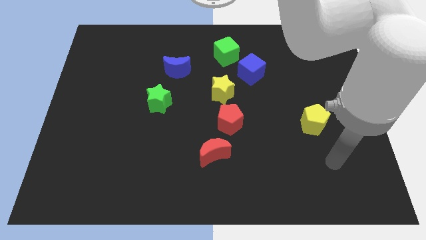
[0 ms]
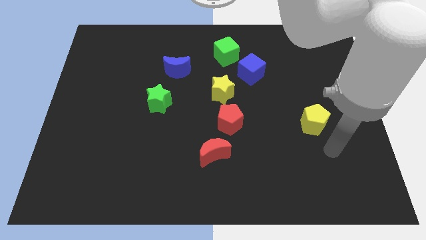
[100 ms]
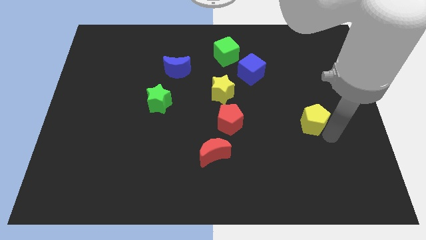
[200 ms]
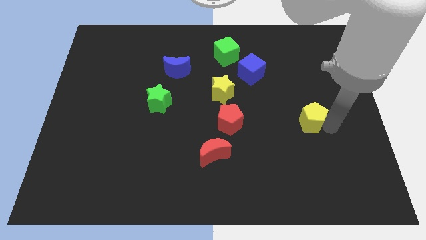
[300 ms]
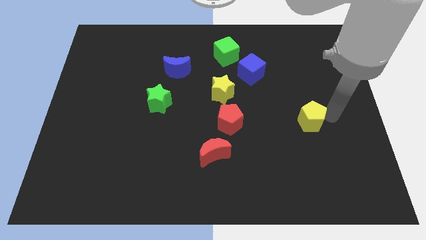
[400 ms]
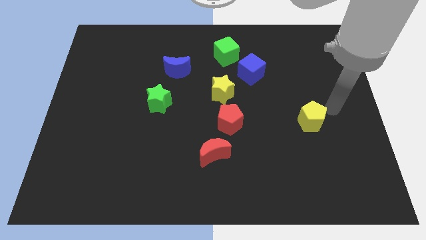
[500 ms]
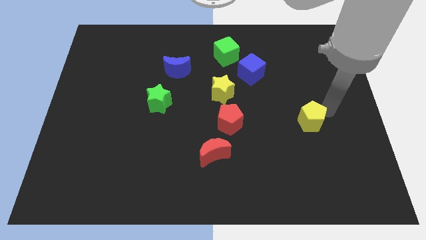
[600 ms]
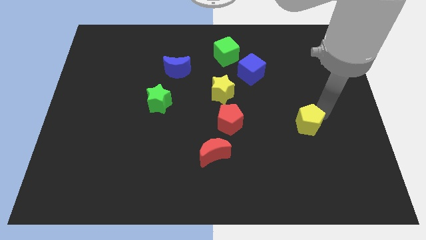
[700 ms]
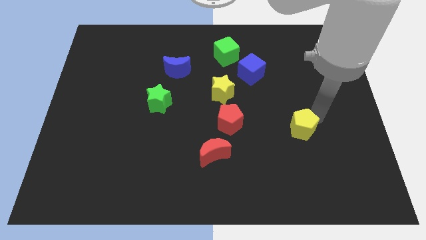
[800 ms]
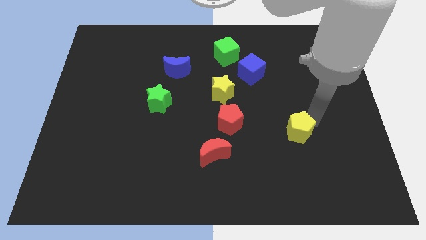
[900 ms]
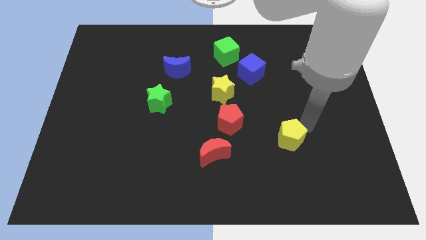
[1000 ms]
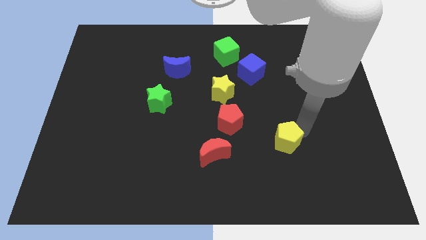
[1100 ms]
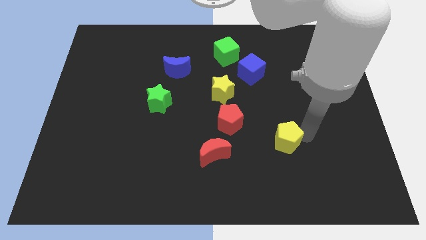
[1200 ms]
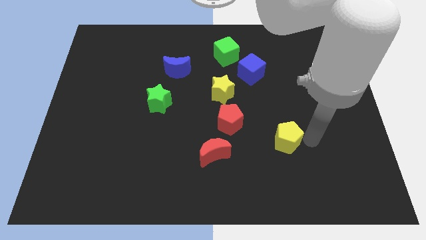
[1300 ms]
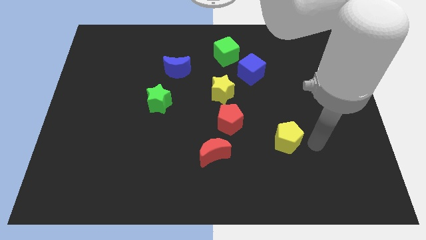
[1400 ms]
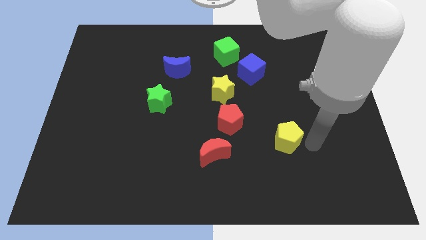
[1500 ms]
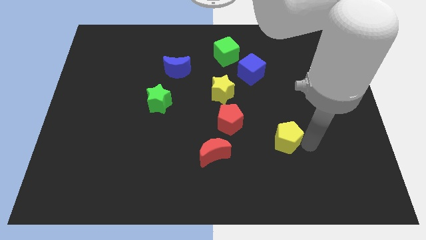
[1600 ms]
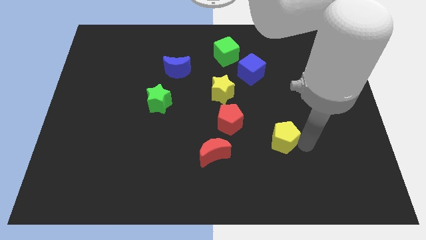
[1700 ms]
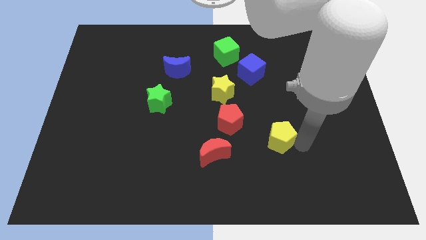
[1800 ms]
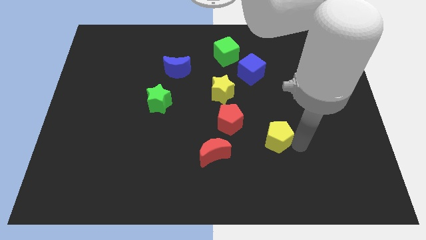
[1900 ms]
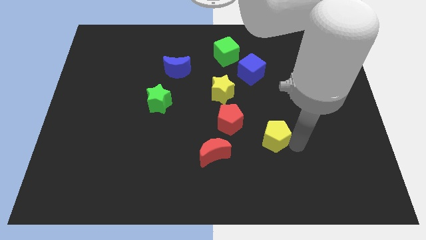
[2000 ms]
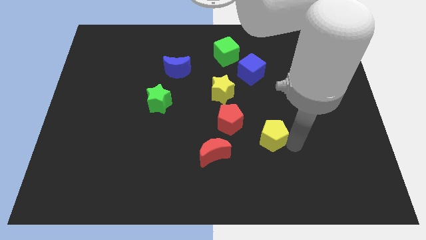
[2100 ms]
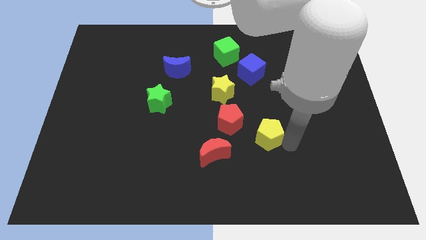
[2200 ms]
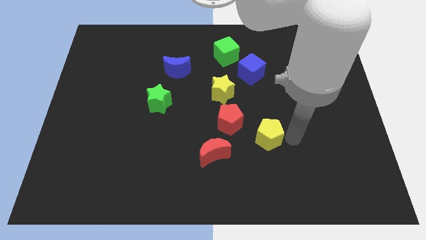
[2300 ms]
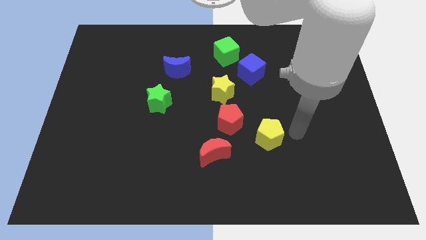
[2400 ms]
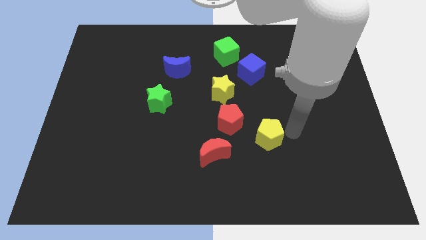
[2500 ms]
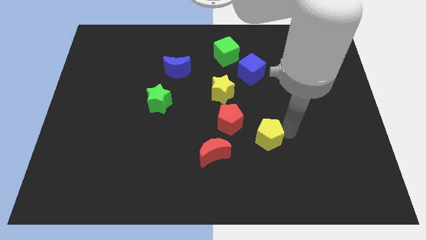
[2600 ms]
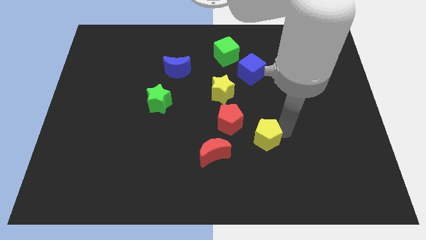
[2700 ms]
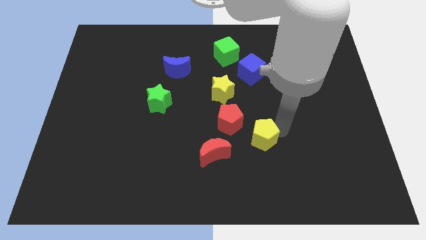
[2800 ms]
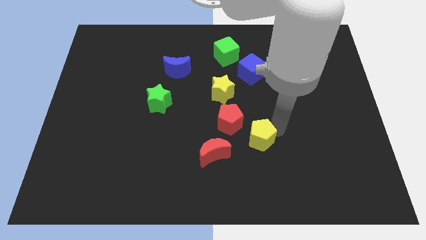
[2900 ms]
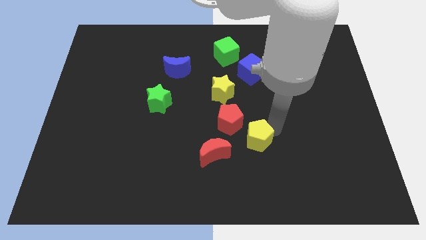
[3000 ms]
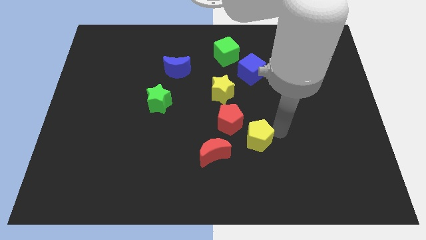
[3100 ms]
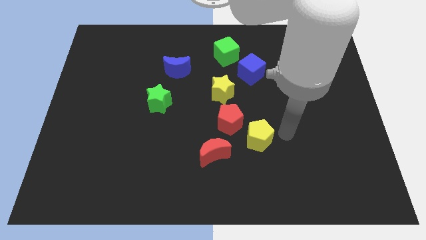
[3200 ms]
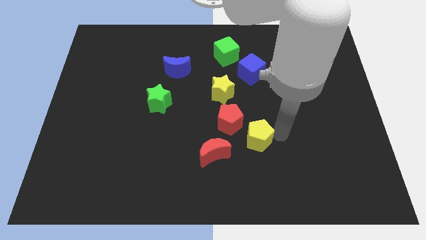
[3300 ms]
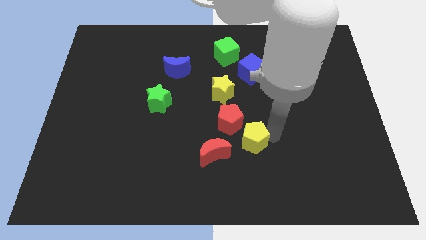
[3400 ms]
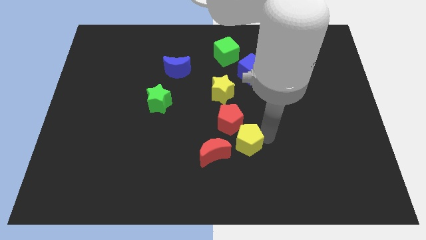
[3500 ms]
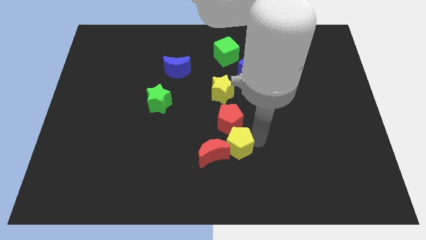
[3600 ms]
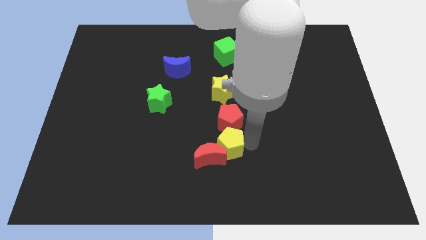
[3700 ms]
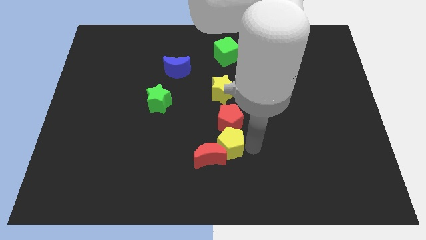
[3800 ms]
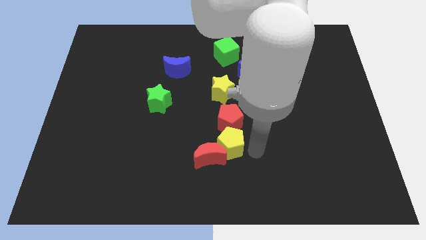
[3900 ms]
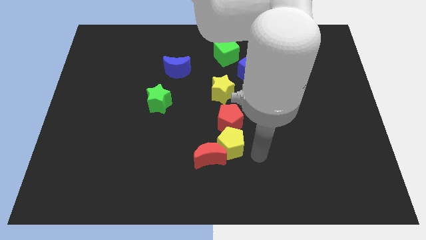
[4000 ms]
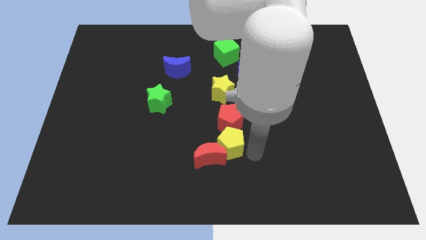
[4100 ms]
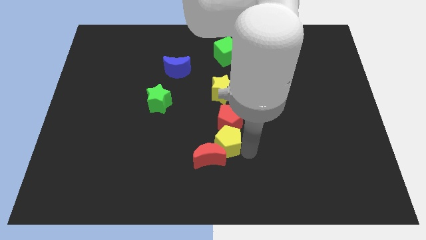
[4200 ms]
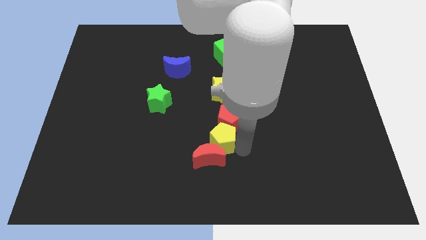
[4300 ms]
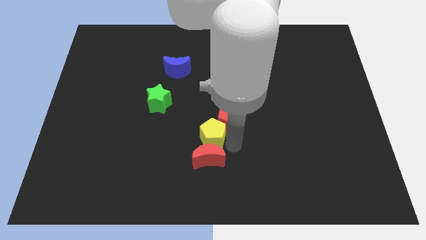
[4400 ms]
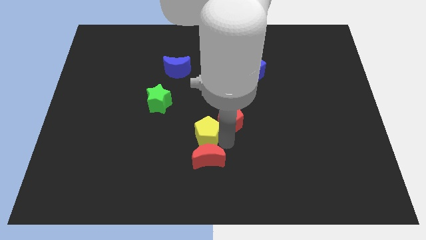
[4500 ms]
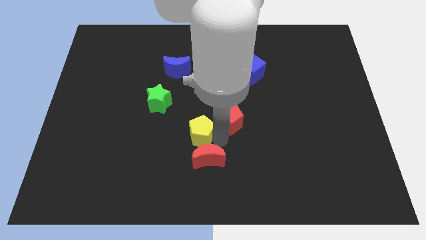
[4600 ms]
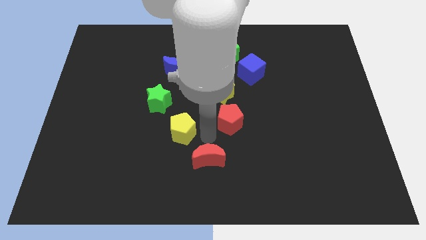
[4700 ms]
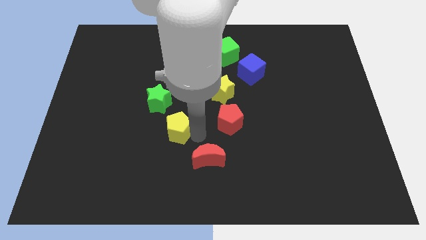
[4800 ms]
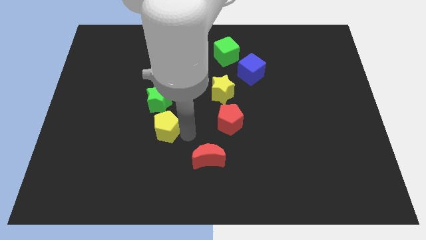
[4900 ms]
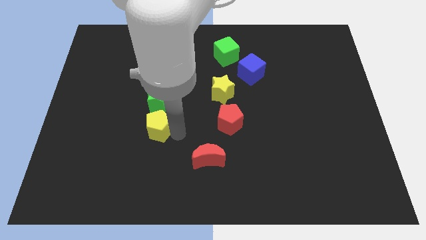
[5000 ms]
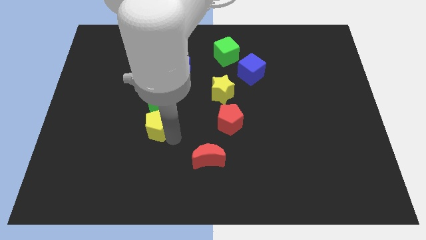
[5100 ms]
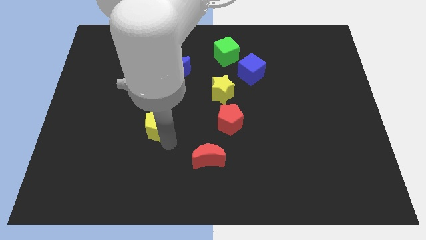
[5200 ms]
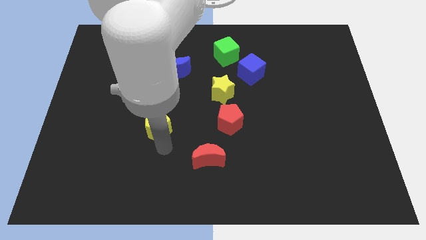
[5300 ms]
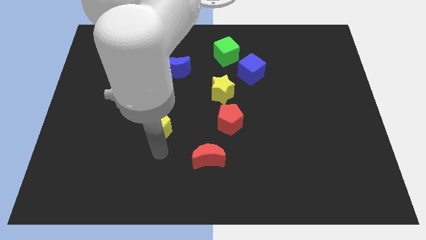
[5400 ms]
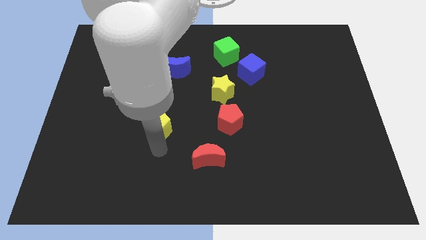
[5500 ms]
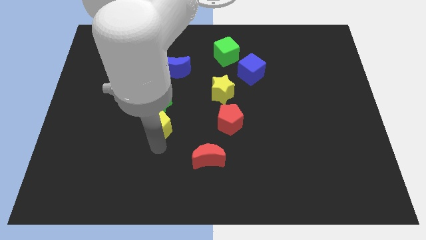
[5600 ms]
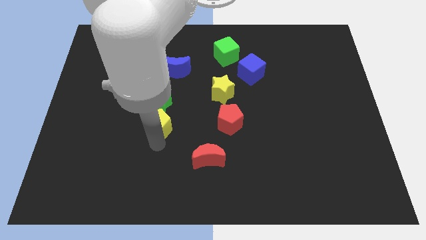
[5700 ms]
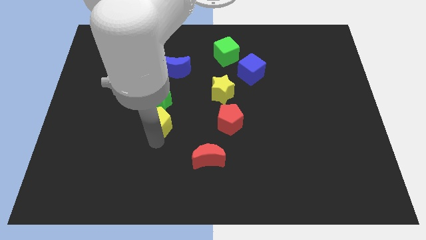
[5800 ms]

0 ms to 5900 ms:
move the yellow pentagon next to the green star

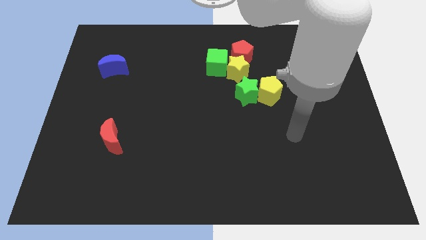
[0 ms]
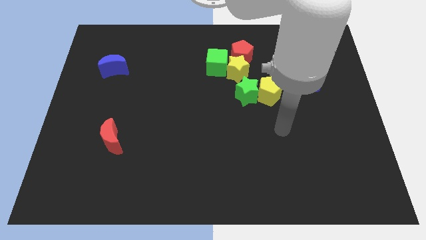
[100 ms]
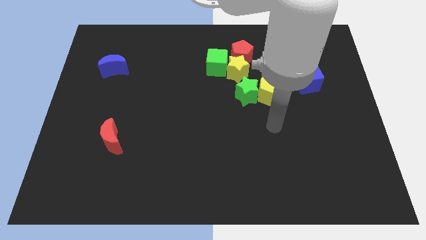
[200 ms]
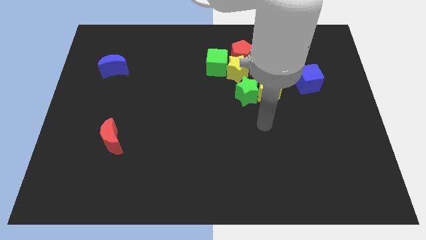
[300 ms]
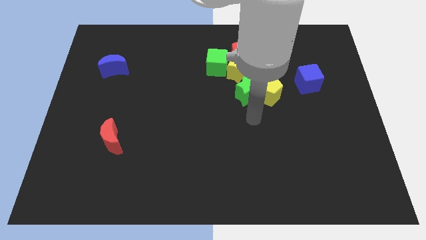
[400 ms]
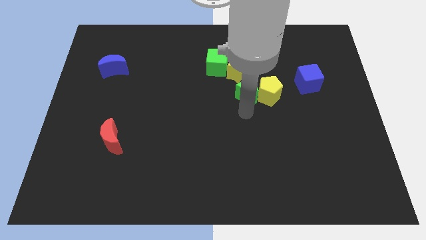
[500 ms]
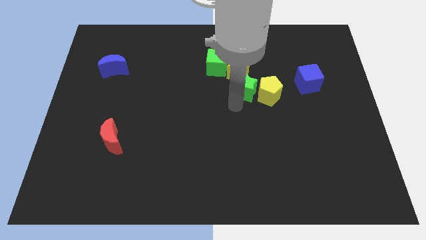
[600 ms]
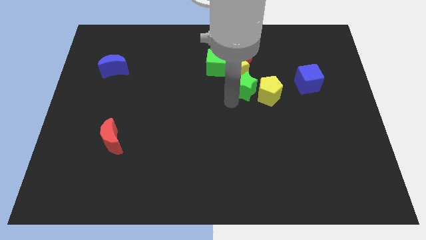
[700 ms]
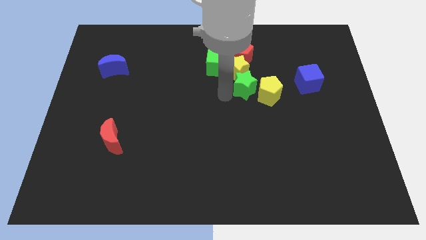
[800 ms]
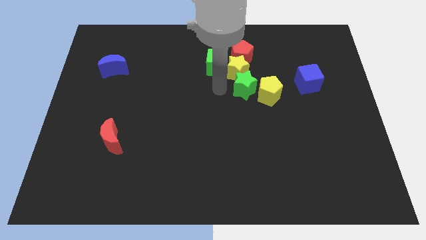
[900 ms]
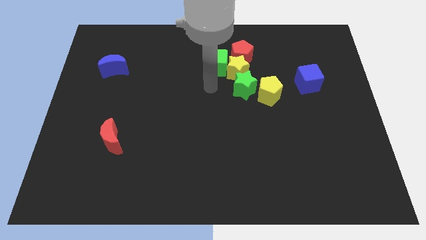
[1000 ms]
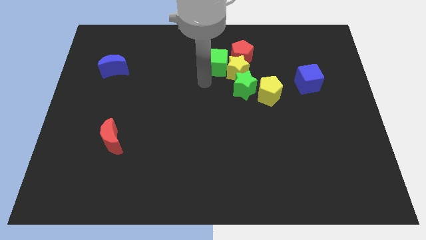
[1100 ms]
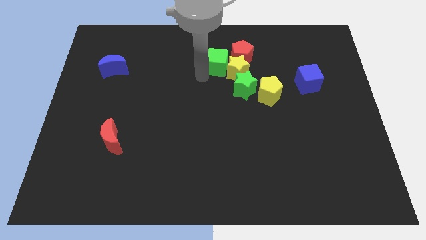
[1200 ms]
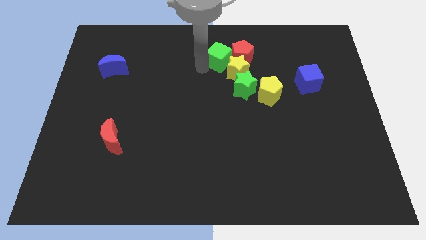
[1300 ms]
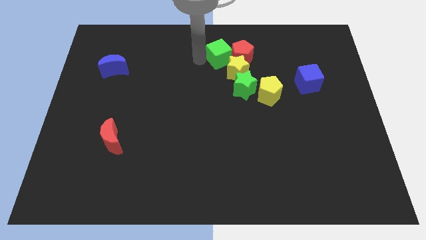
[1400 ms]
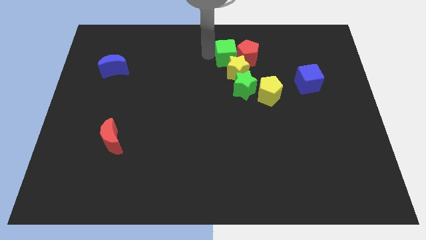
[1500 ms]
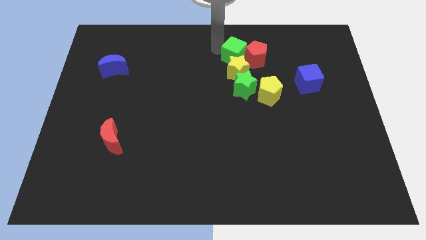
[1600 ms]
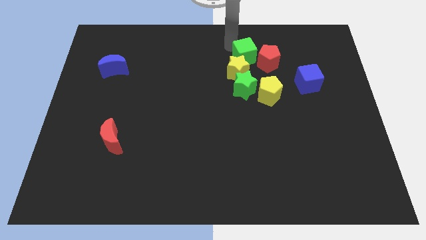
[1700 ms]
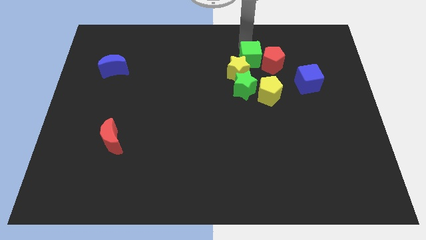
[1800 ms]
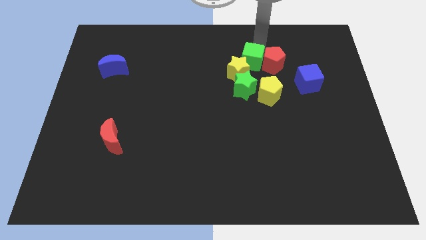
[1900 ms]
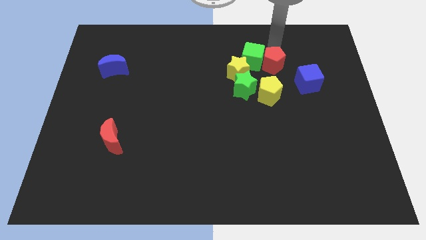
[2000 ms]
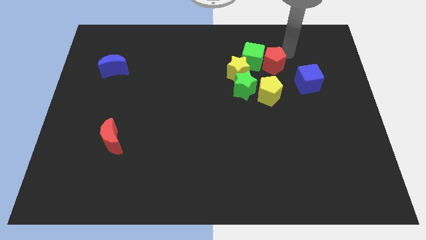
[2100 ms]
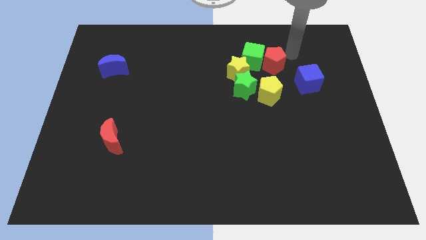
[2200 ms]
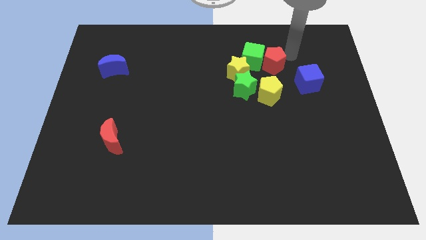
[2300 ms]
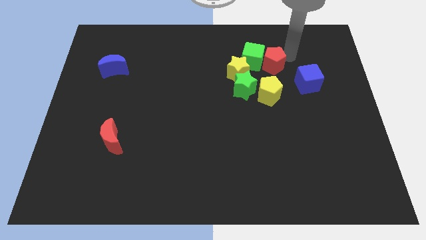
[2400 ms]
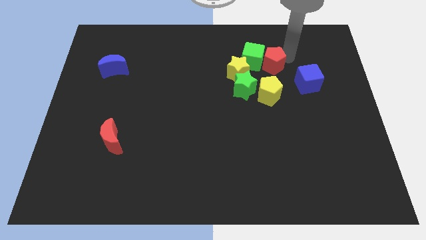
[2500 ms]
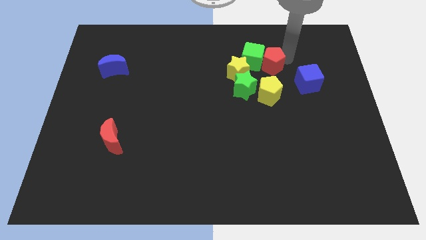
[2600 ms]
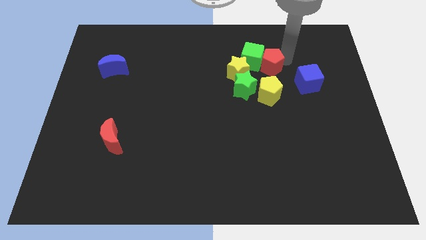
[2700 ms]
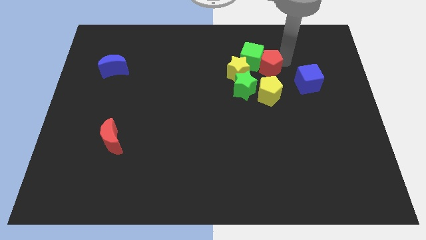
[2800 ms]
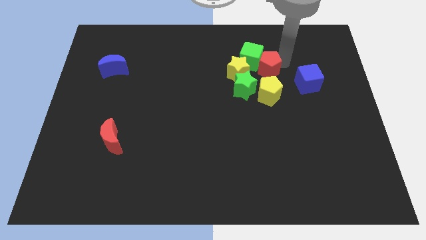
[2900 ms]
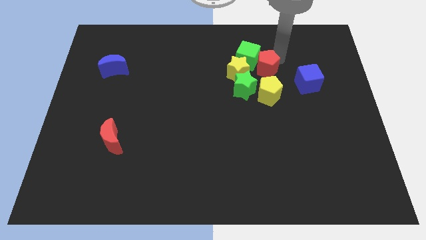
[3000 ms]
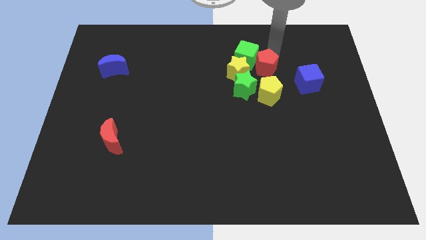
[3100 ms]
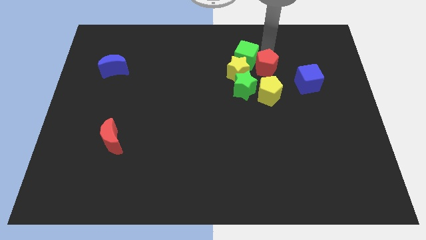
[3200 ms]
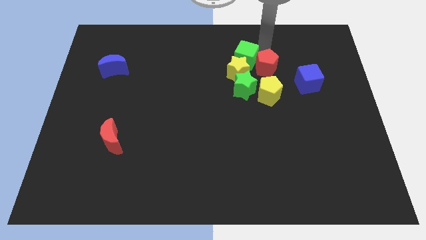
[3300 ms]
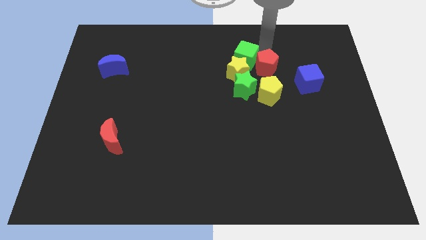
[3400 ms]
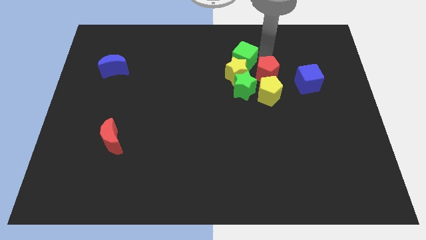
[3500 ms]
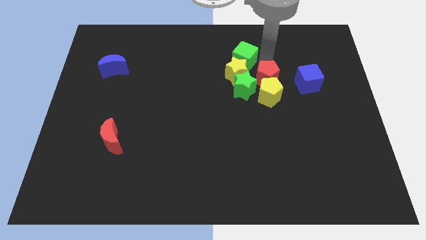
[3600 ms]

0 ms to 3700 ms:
put the red pentagon next to the yellow pentagon
